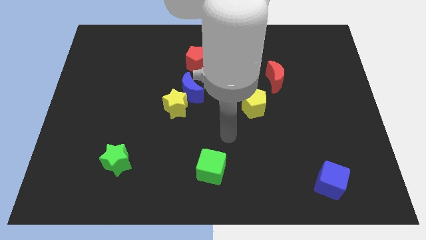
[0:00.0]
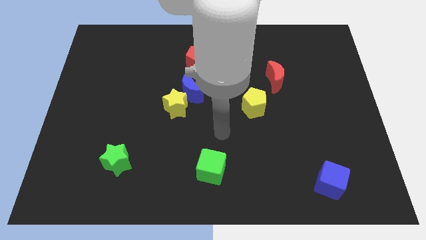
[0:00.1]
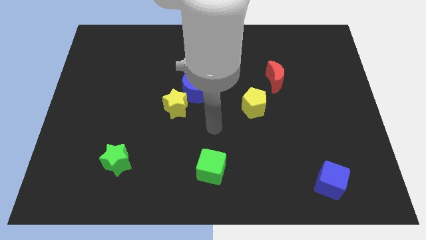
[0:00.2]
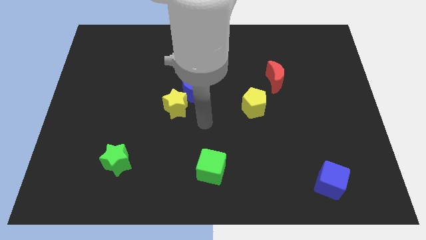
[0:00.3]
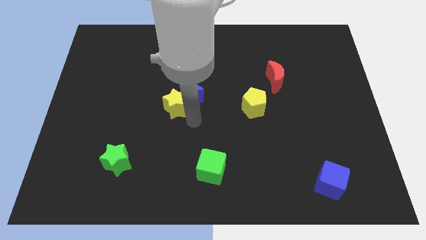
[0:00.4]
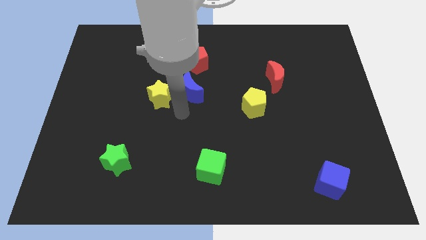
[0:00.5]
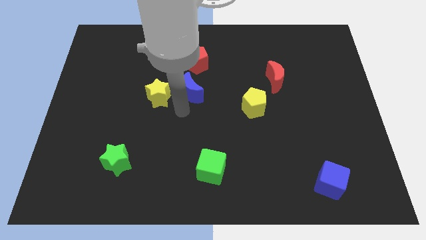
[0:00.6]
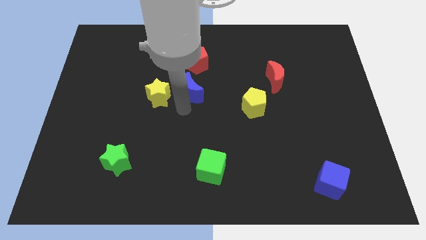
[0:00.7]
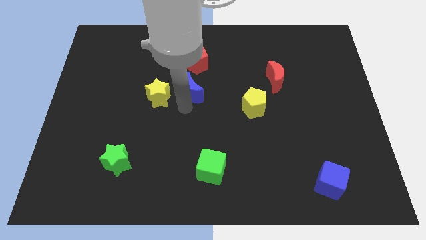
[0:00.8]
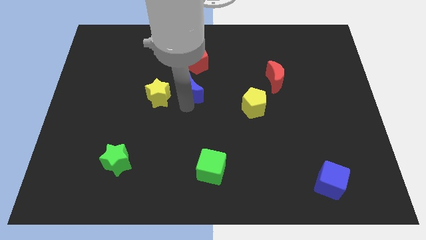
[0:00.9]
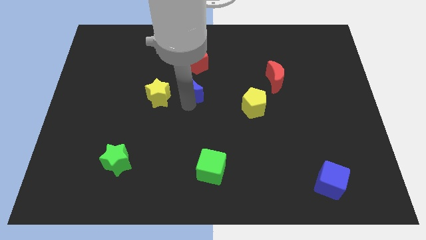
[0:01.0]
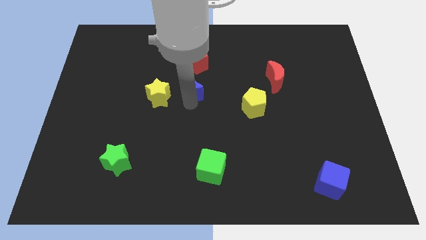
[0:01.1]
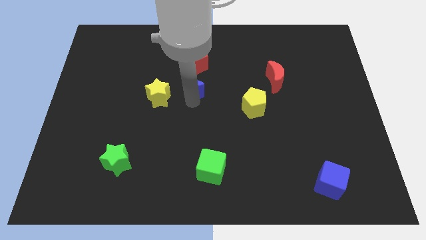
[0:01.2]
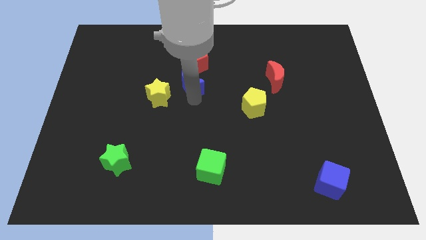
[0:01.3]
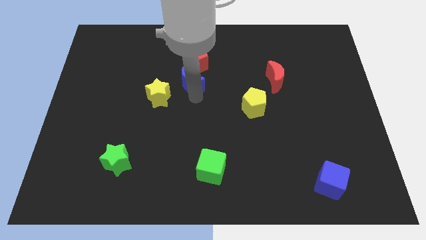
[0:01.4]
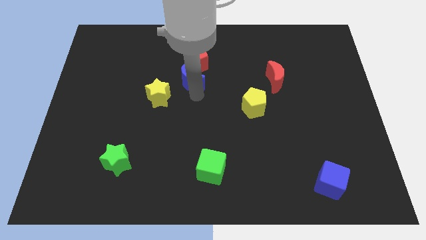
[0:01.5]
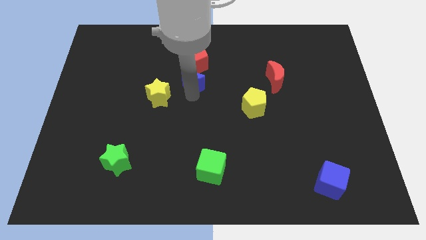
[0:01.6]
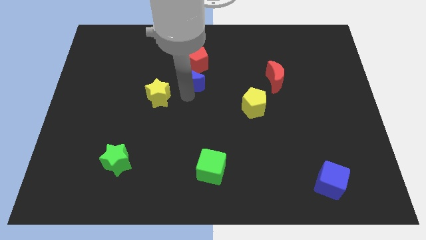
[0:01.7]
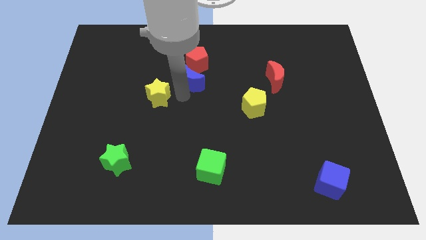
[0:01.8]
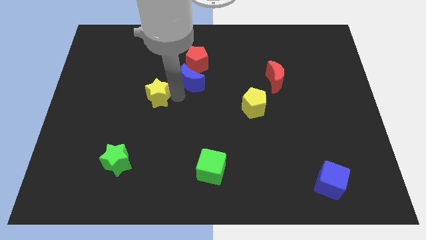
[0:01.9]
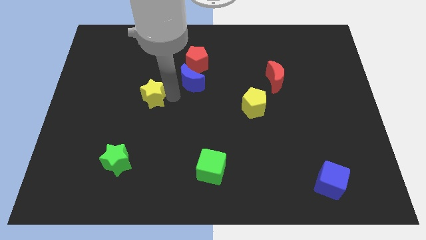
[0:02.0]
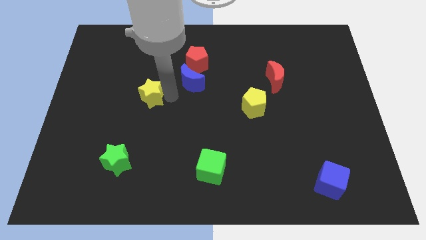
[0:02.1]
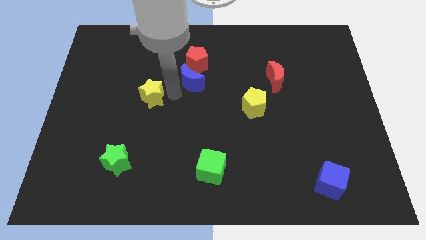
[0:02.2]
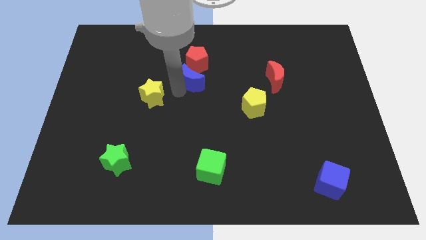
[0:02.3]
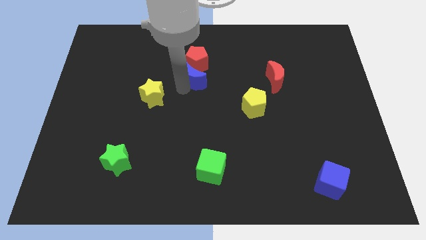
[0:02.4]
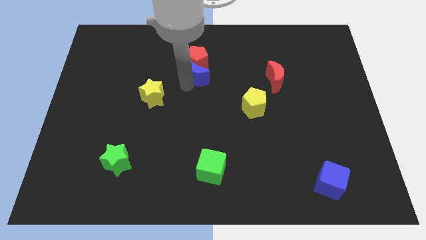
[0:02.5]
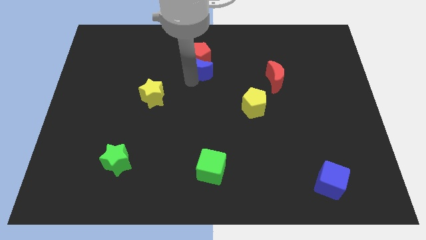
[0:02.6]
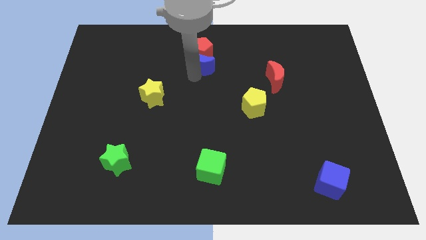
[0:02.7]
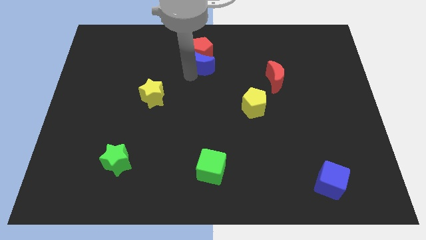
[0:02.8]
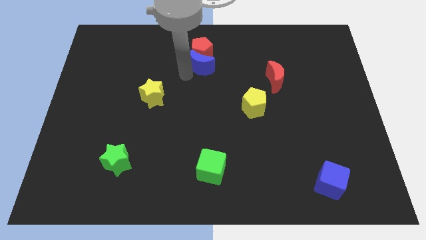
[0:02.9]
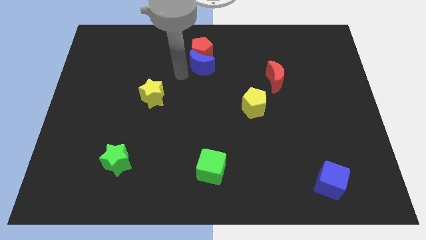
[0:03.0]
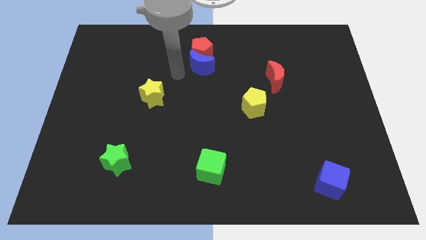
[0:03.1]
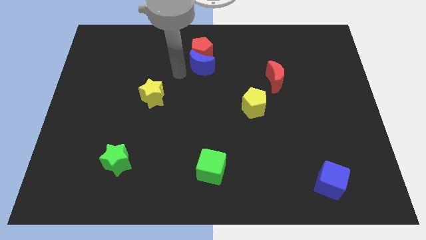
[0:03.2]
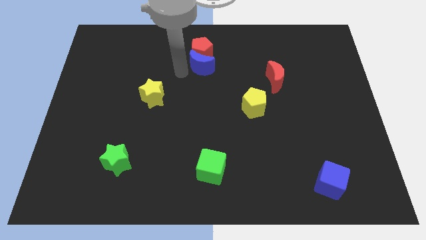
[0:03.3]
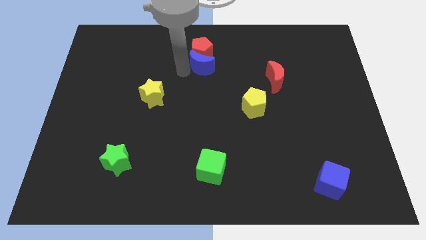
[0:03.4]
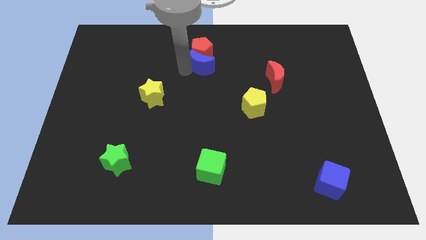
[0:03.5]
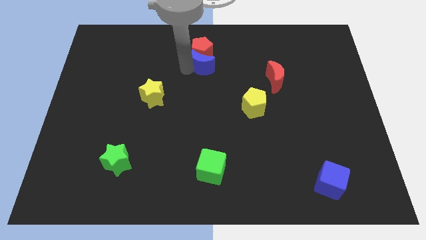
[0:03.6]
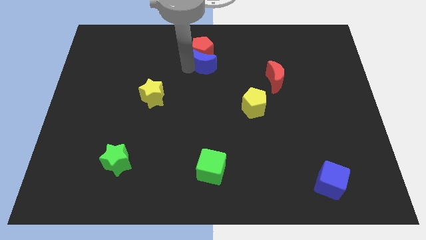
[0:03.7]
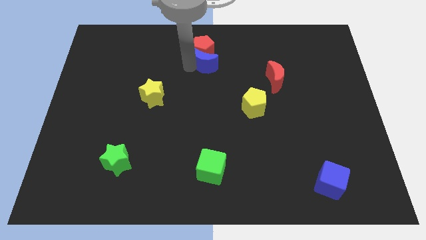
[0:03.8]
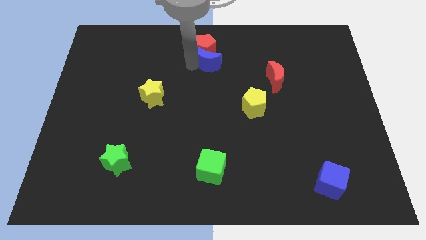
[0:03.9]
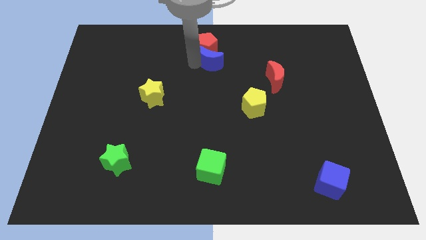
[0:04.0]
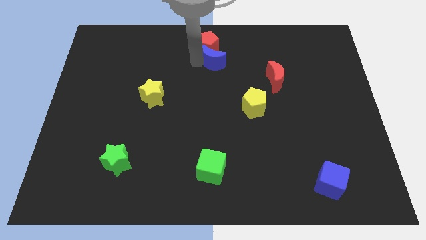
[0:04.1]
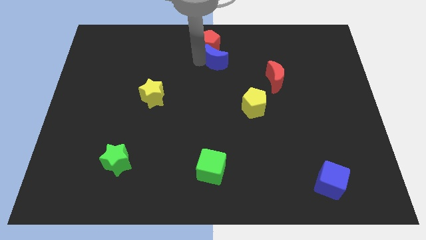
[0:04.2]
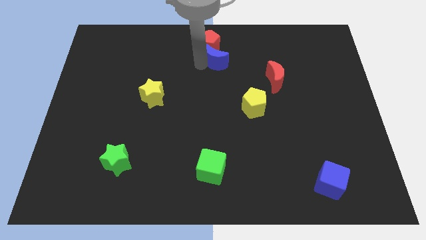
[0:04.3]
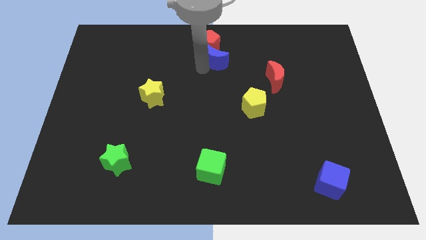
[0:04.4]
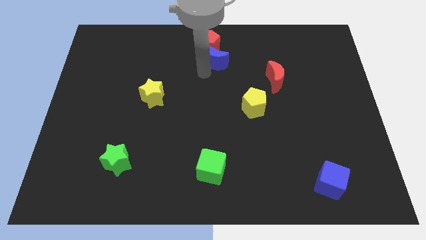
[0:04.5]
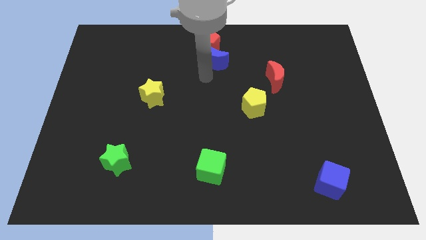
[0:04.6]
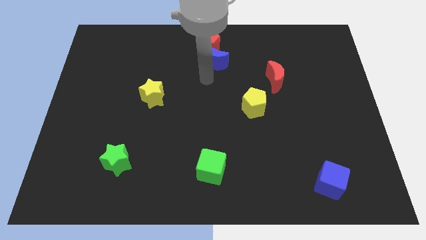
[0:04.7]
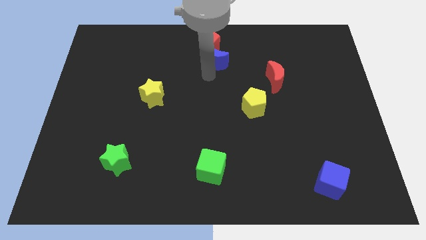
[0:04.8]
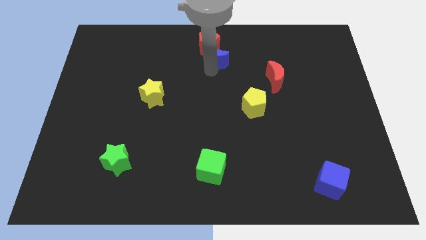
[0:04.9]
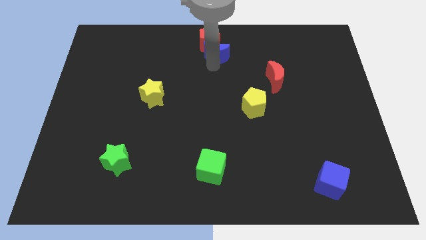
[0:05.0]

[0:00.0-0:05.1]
move the blue moon to the towards your base

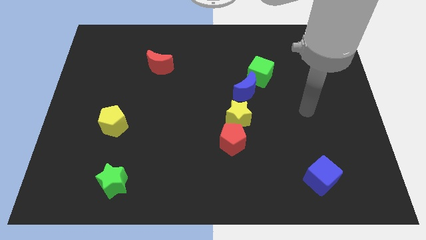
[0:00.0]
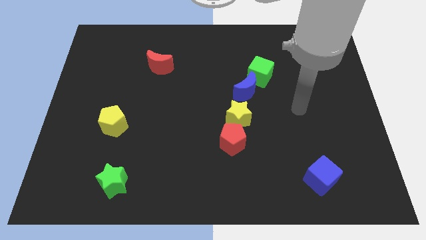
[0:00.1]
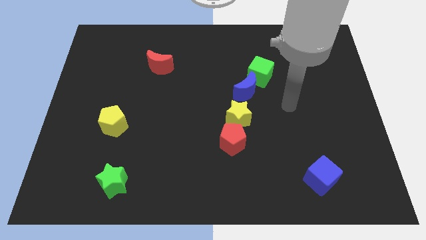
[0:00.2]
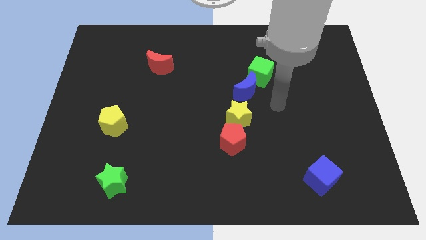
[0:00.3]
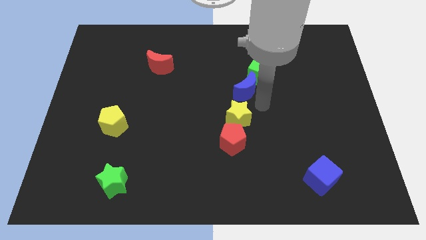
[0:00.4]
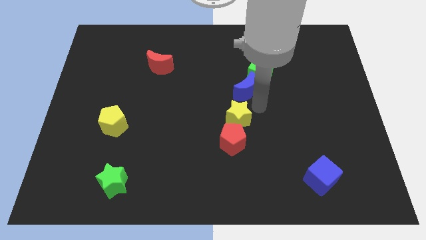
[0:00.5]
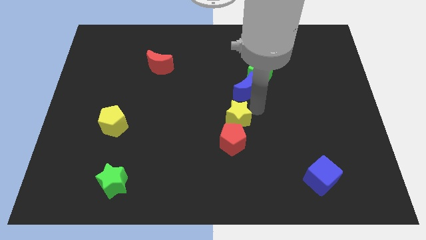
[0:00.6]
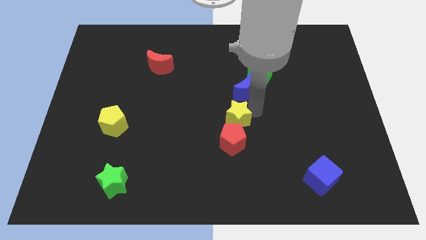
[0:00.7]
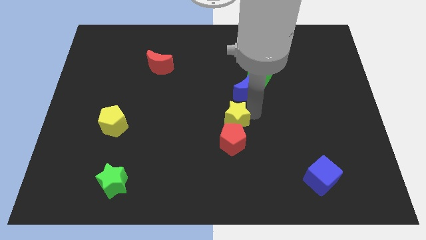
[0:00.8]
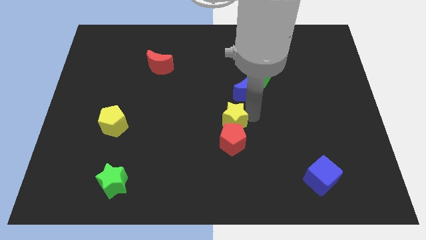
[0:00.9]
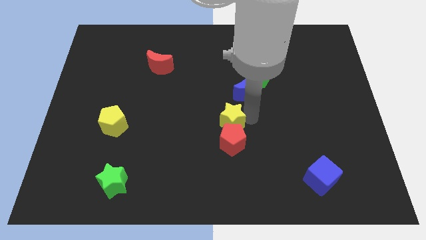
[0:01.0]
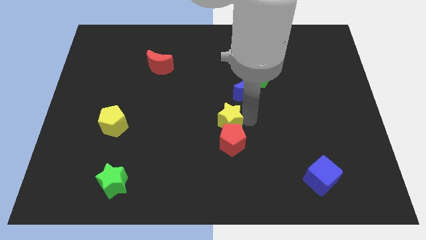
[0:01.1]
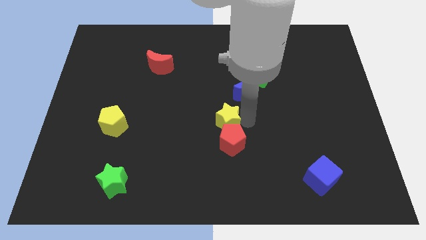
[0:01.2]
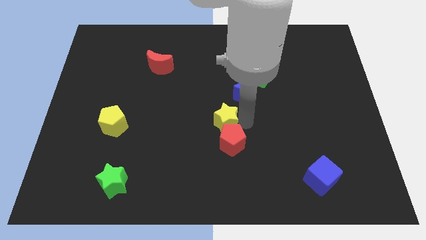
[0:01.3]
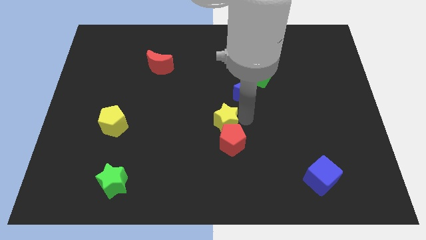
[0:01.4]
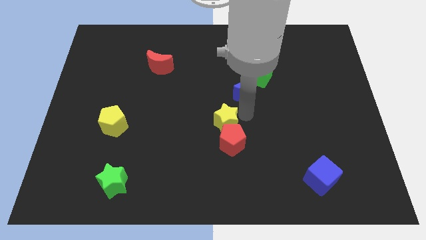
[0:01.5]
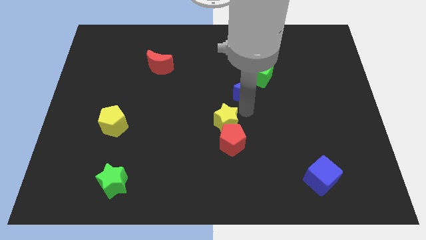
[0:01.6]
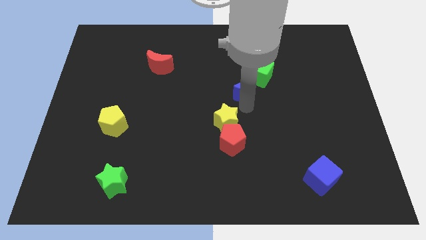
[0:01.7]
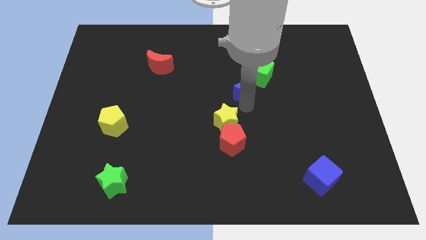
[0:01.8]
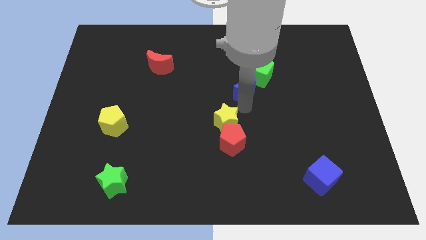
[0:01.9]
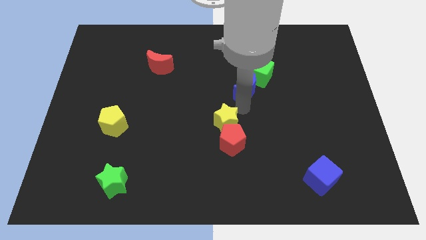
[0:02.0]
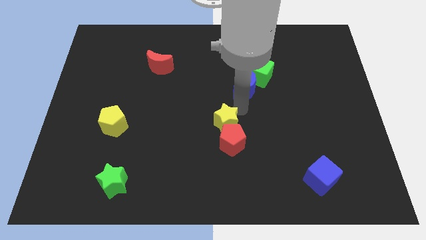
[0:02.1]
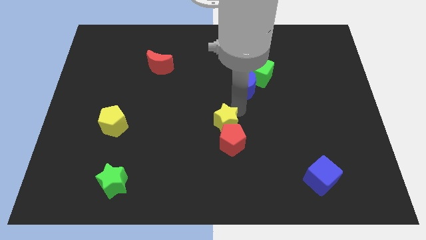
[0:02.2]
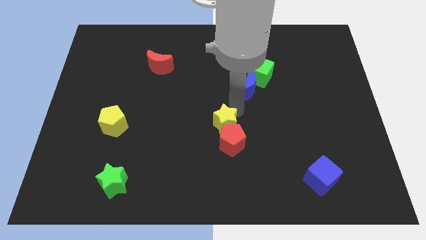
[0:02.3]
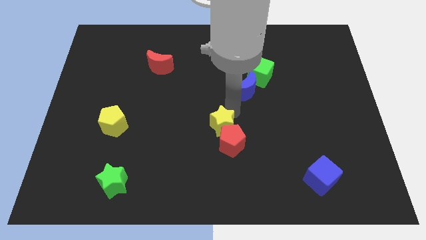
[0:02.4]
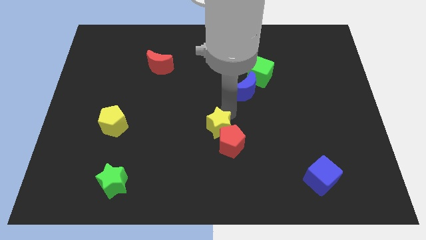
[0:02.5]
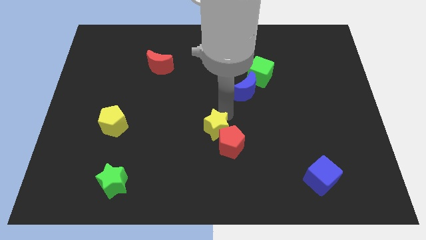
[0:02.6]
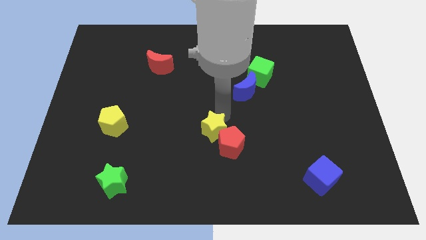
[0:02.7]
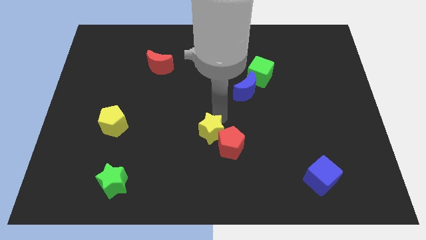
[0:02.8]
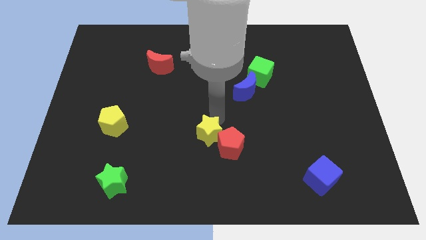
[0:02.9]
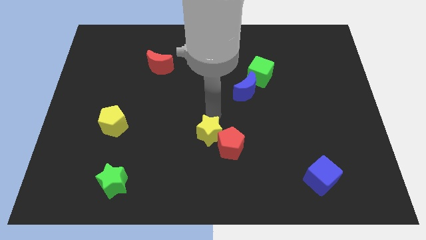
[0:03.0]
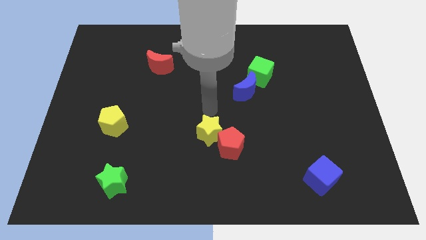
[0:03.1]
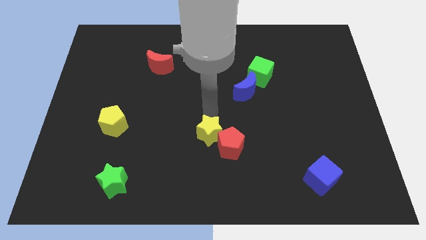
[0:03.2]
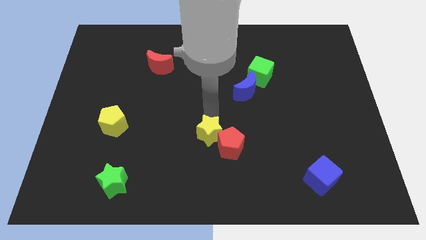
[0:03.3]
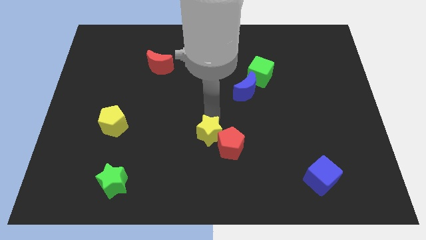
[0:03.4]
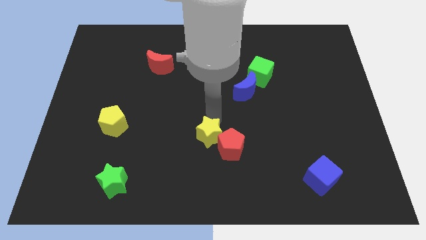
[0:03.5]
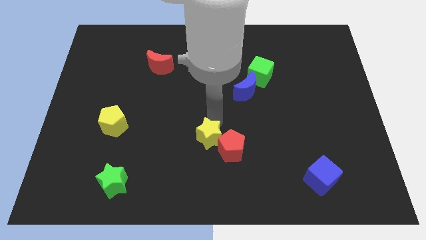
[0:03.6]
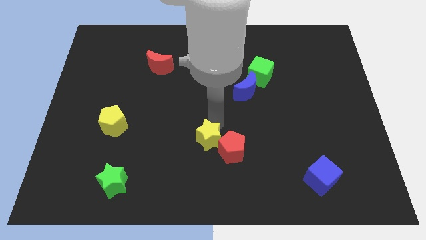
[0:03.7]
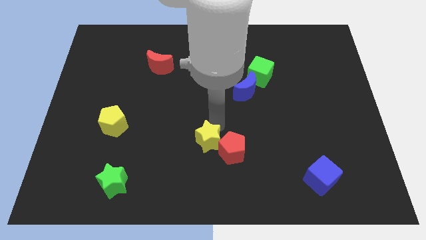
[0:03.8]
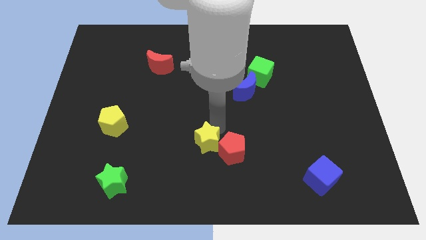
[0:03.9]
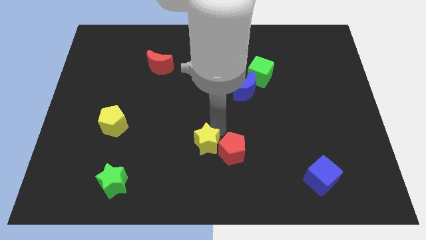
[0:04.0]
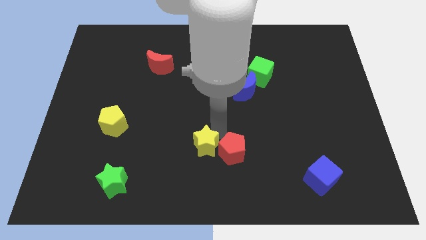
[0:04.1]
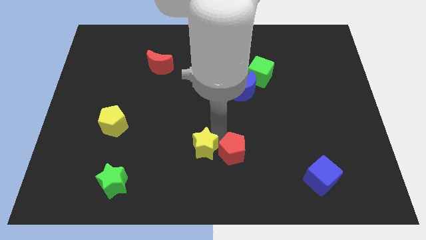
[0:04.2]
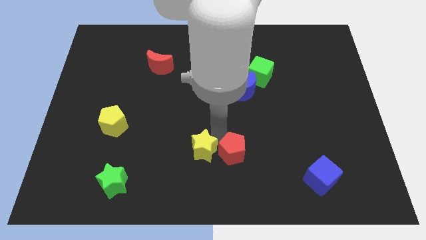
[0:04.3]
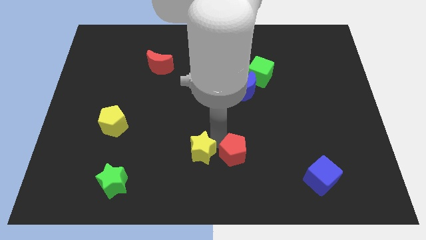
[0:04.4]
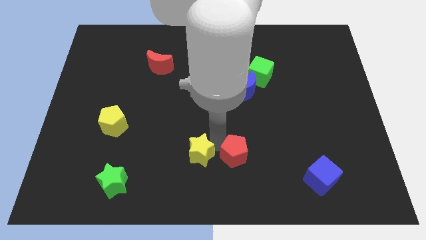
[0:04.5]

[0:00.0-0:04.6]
push the yellow star to the bottom
